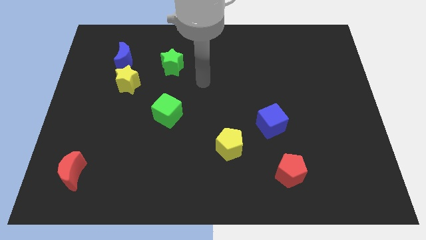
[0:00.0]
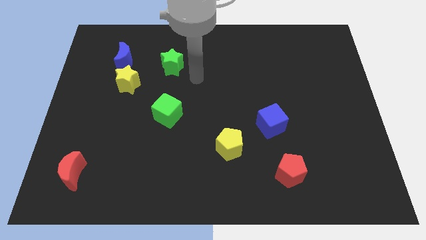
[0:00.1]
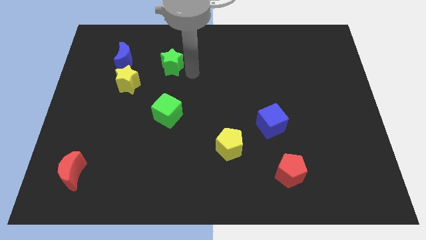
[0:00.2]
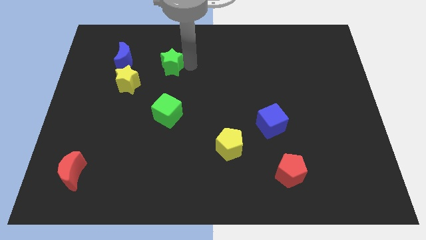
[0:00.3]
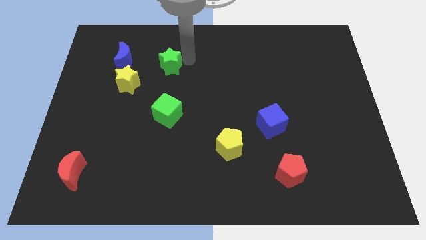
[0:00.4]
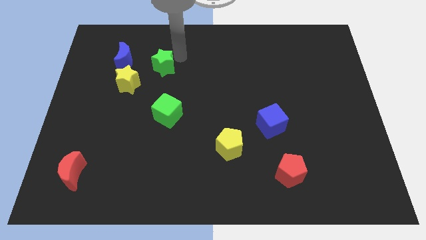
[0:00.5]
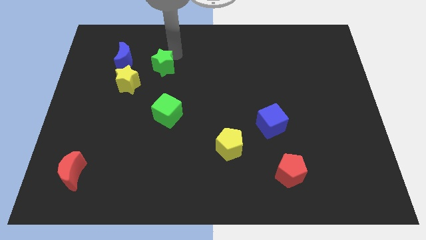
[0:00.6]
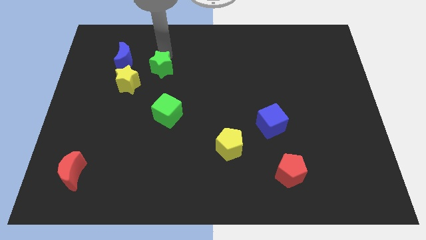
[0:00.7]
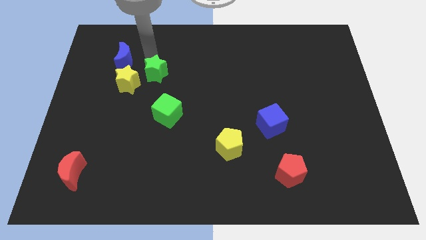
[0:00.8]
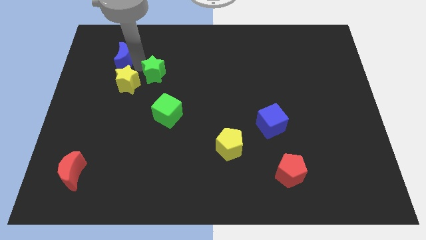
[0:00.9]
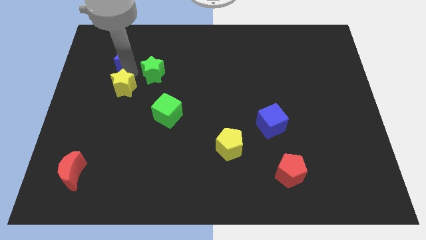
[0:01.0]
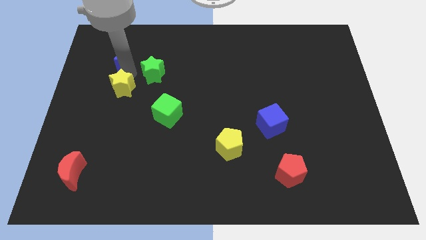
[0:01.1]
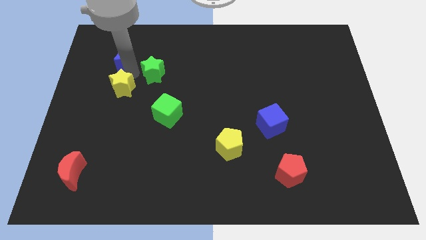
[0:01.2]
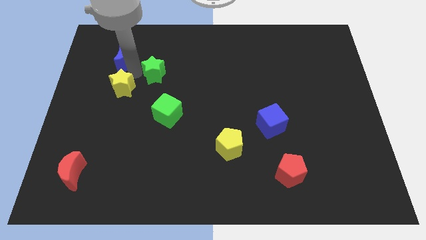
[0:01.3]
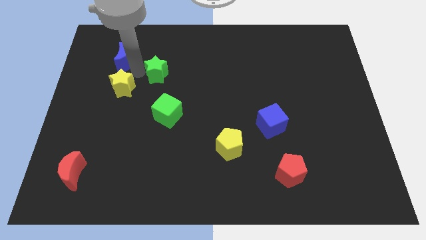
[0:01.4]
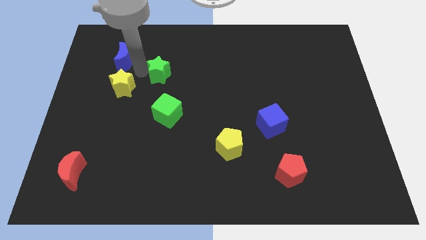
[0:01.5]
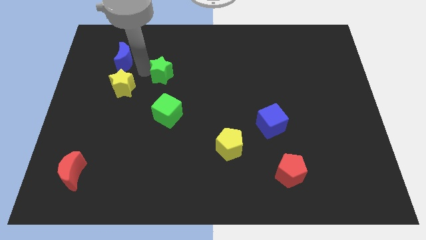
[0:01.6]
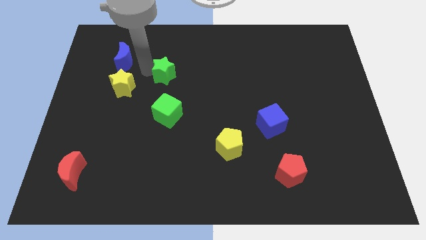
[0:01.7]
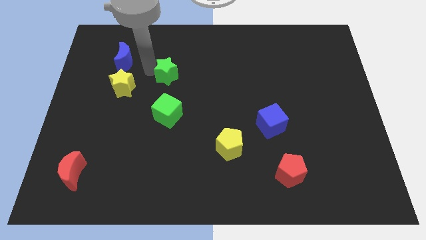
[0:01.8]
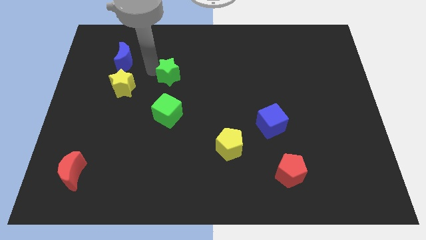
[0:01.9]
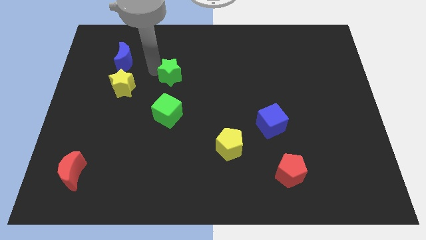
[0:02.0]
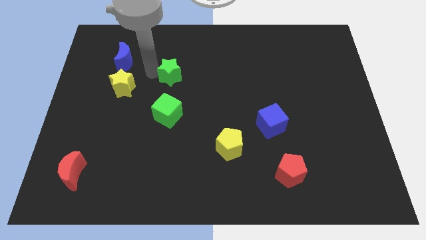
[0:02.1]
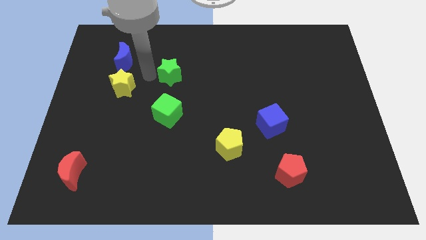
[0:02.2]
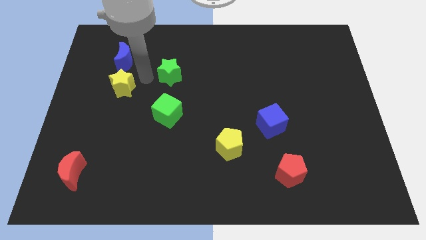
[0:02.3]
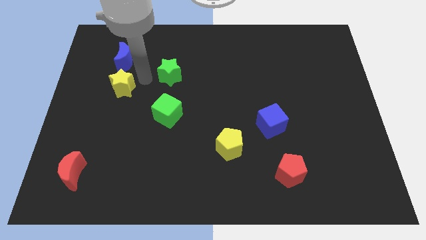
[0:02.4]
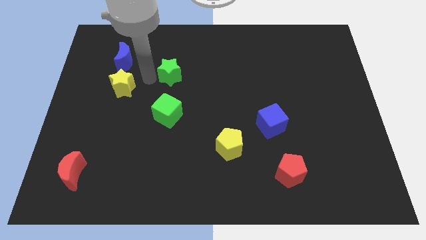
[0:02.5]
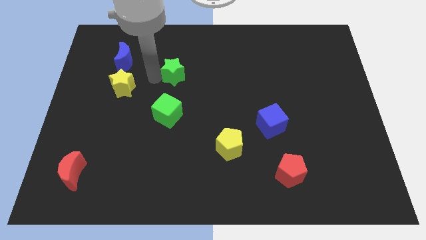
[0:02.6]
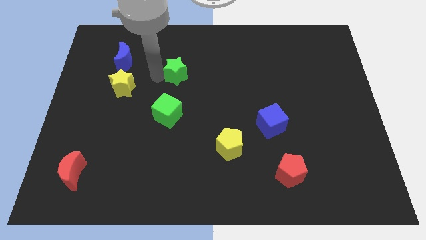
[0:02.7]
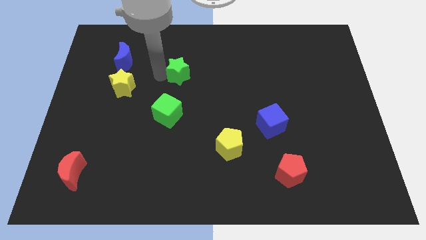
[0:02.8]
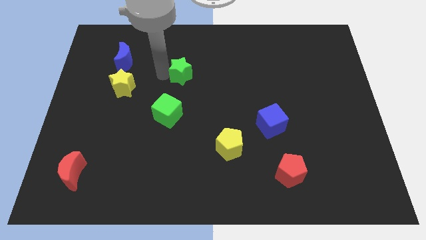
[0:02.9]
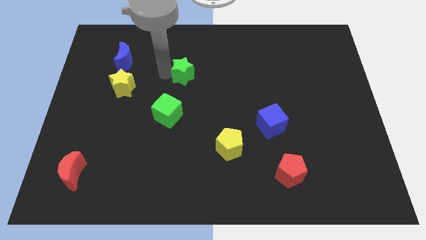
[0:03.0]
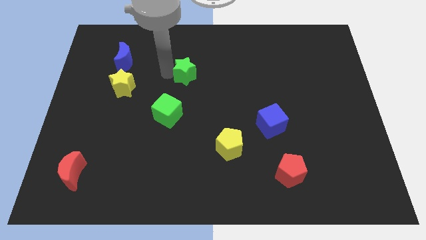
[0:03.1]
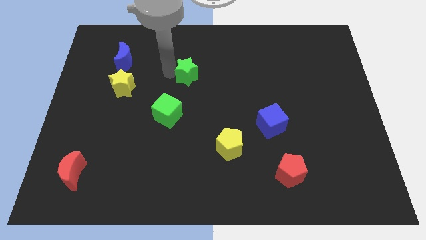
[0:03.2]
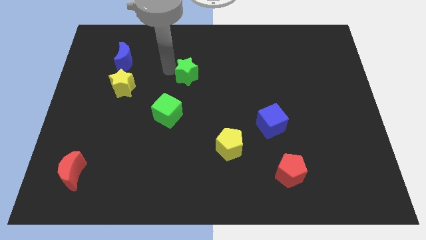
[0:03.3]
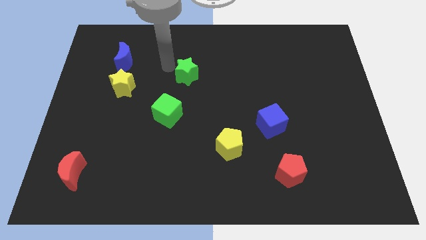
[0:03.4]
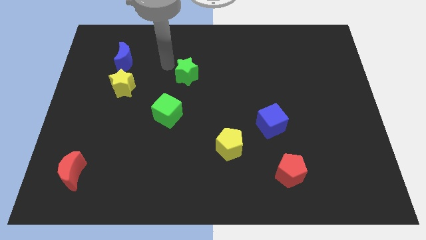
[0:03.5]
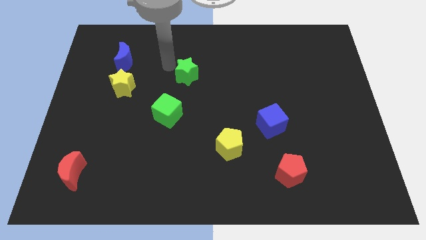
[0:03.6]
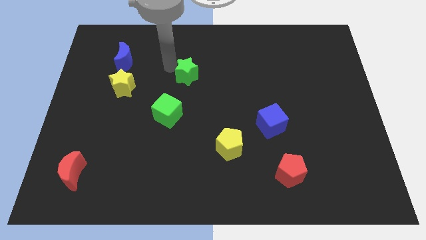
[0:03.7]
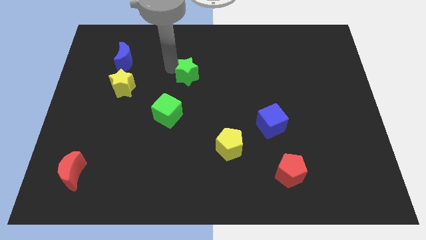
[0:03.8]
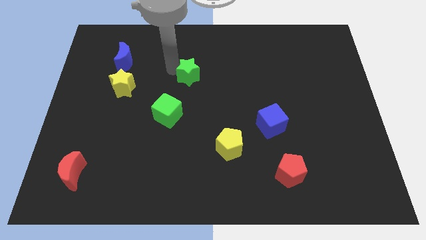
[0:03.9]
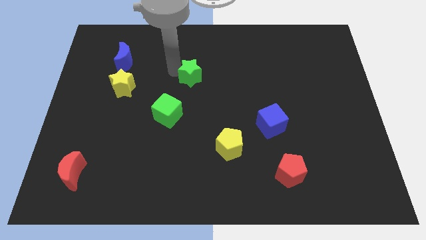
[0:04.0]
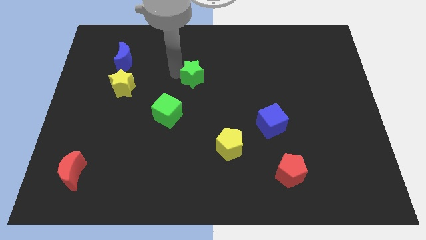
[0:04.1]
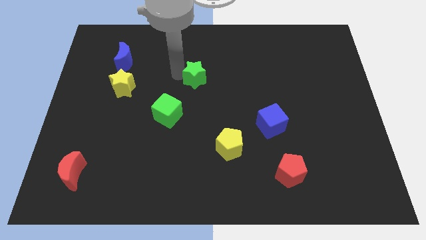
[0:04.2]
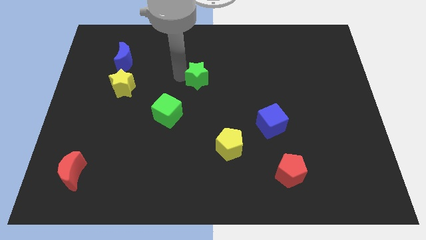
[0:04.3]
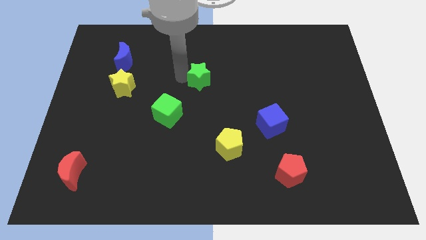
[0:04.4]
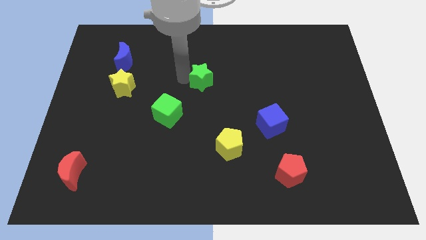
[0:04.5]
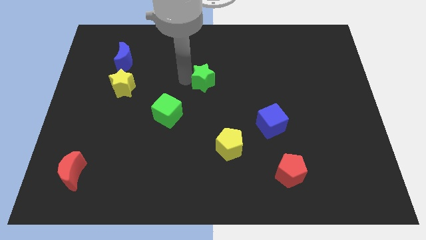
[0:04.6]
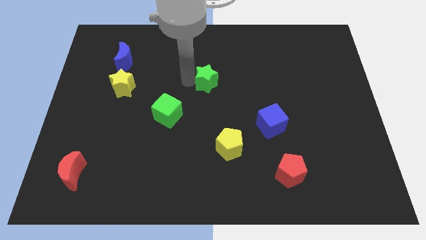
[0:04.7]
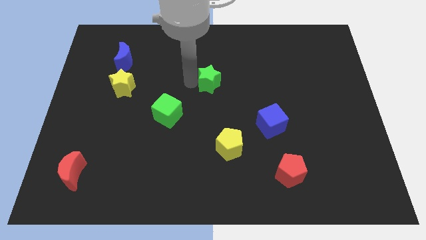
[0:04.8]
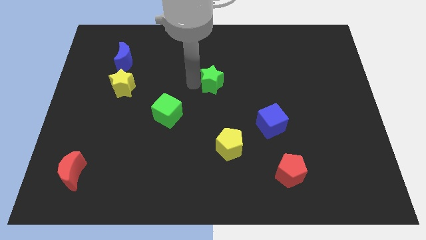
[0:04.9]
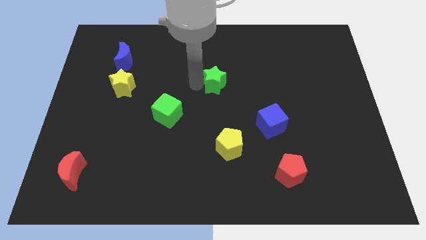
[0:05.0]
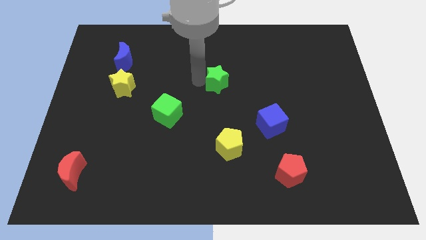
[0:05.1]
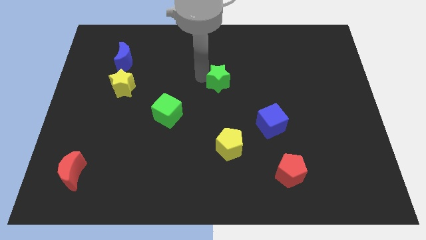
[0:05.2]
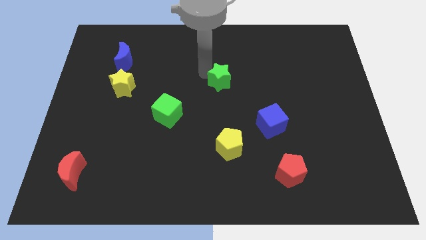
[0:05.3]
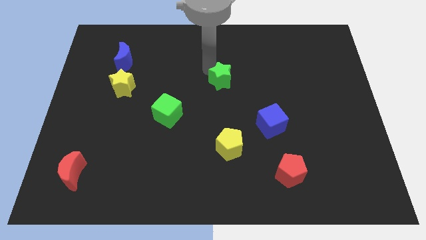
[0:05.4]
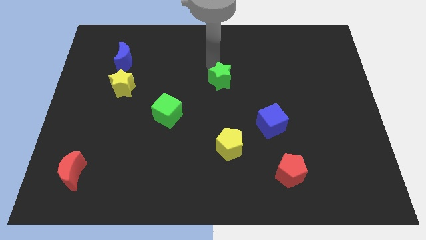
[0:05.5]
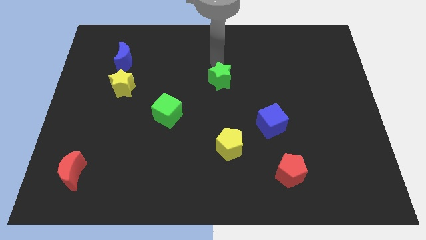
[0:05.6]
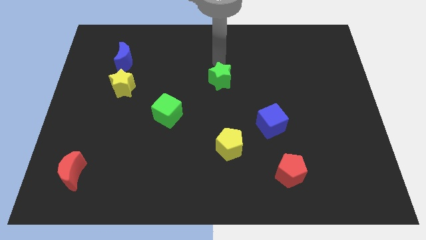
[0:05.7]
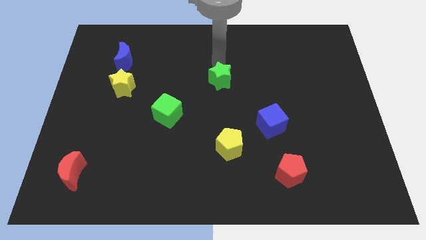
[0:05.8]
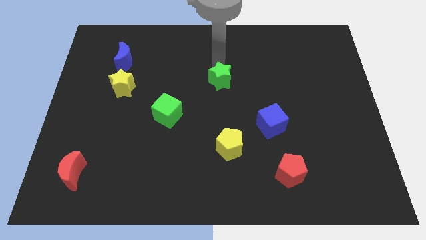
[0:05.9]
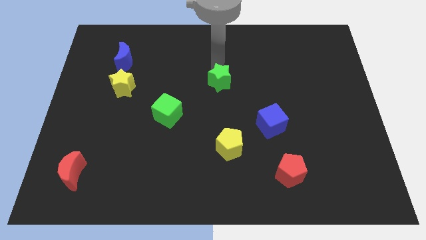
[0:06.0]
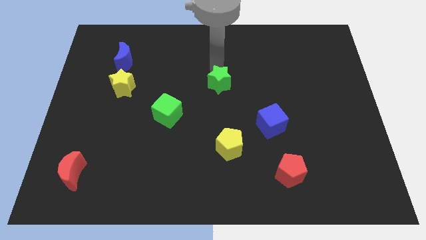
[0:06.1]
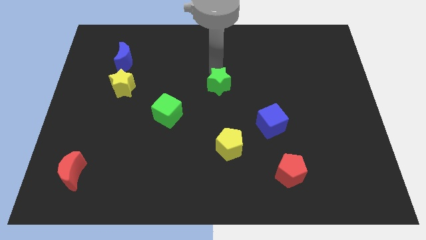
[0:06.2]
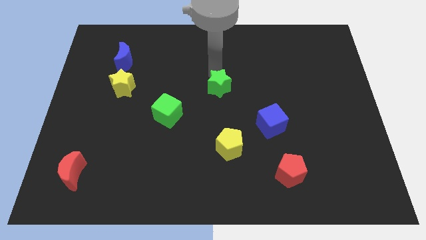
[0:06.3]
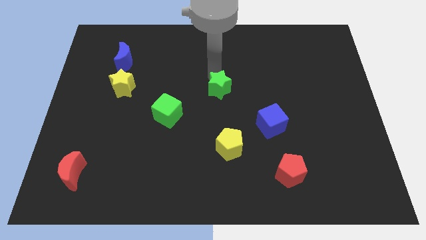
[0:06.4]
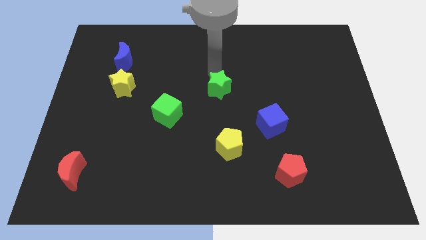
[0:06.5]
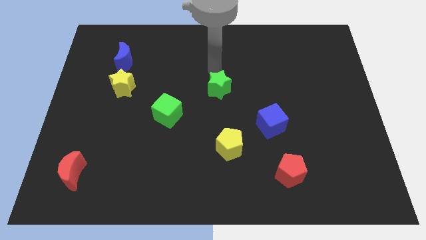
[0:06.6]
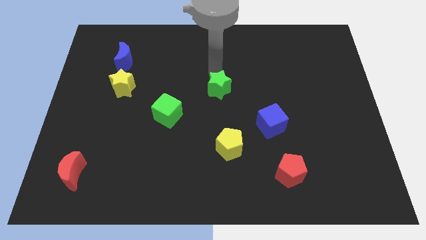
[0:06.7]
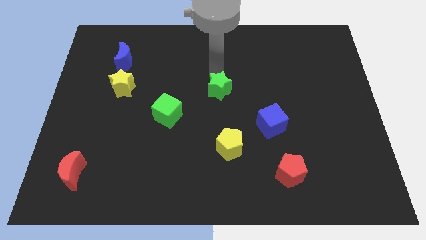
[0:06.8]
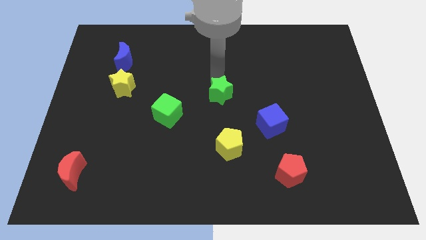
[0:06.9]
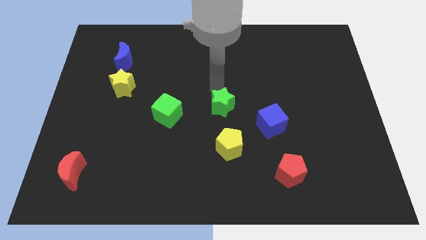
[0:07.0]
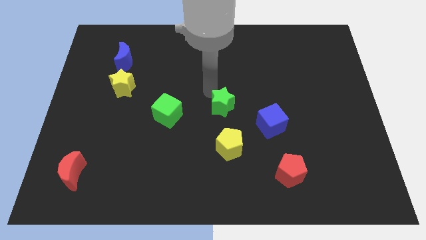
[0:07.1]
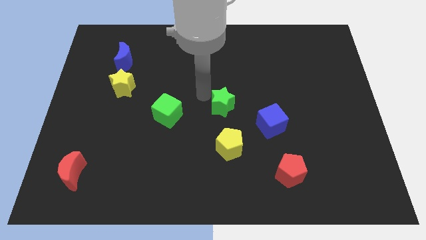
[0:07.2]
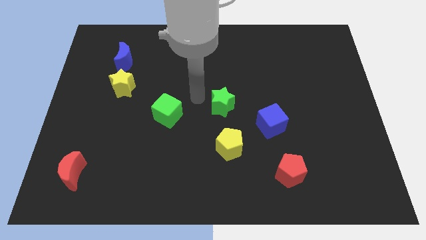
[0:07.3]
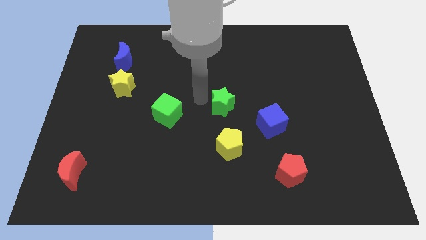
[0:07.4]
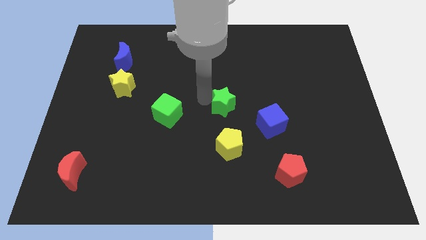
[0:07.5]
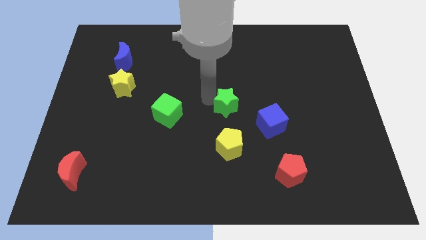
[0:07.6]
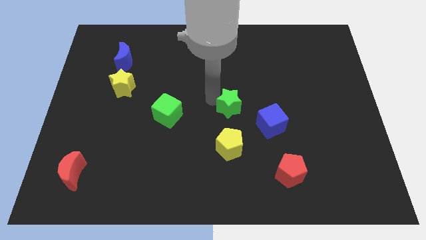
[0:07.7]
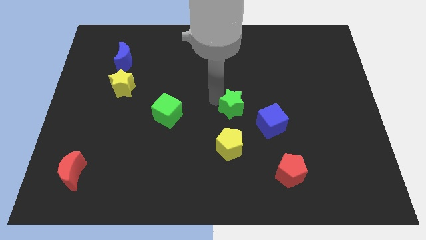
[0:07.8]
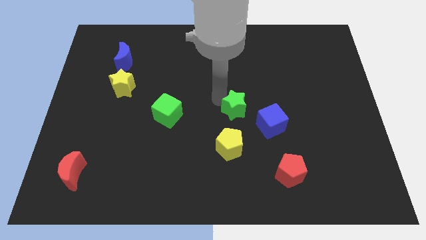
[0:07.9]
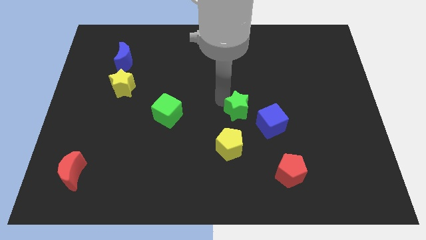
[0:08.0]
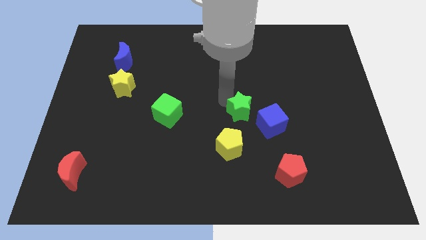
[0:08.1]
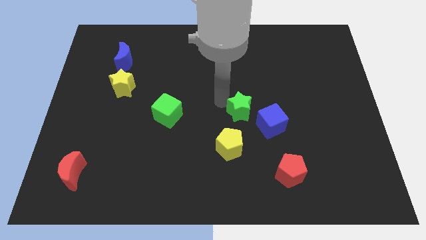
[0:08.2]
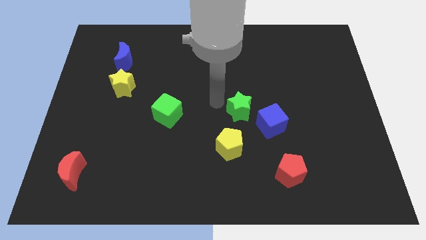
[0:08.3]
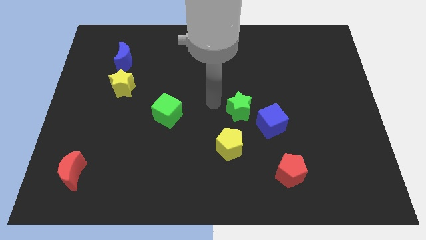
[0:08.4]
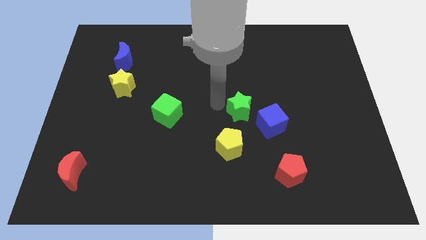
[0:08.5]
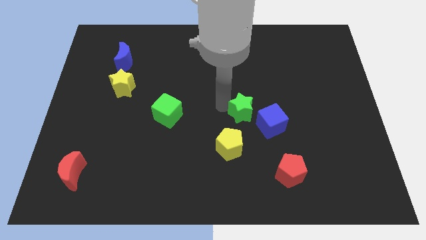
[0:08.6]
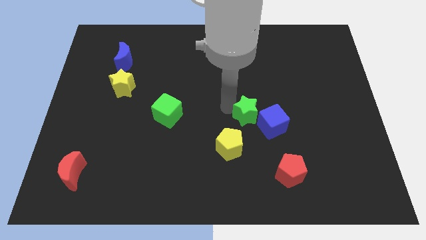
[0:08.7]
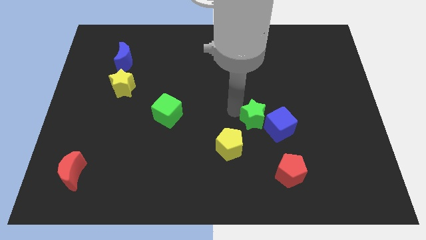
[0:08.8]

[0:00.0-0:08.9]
move the green star close to the blue cube
